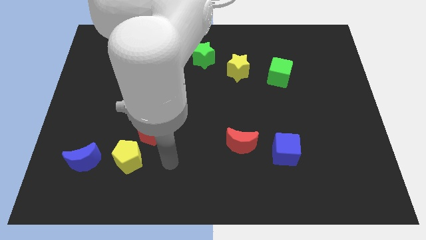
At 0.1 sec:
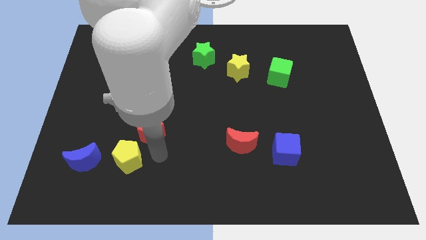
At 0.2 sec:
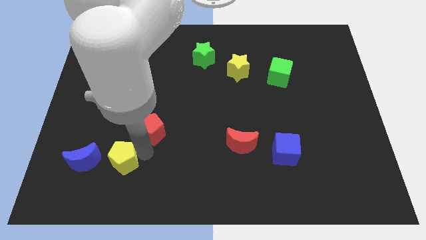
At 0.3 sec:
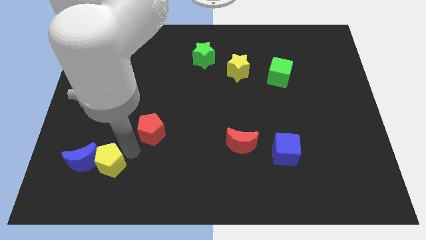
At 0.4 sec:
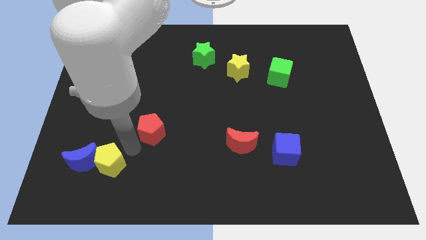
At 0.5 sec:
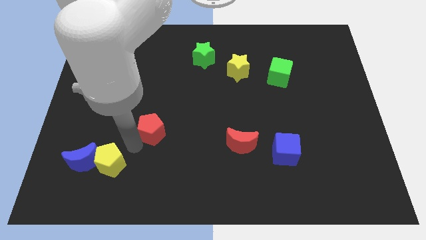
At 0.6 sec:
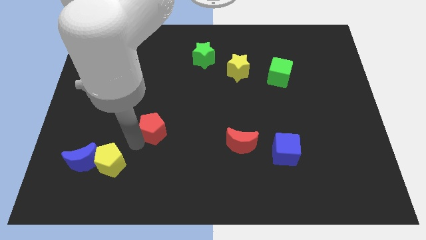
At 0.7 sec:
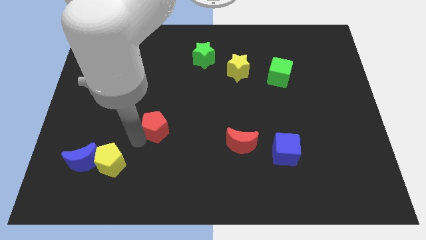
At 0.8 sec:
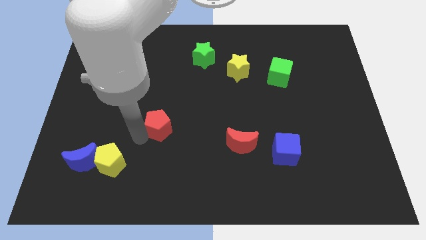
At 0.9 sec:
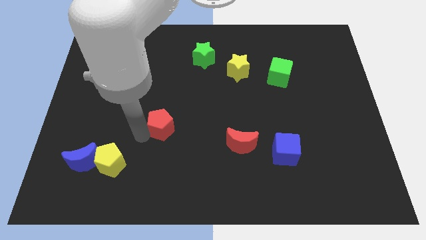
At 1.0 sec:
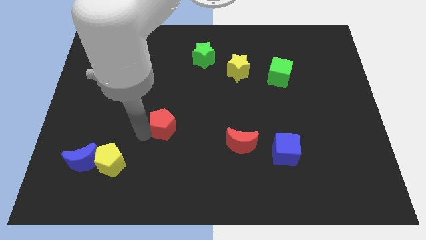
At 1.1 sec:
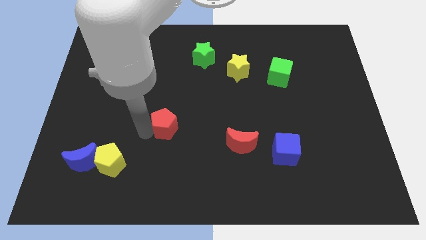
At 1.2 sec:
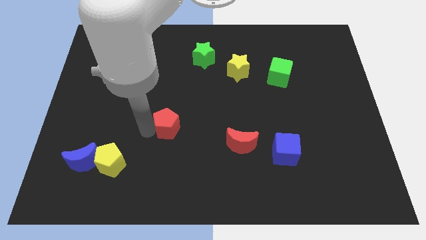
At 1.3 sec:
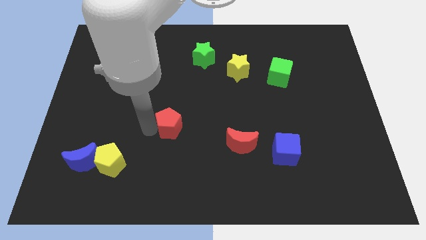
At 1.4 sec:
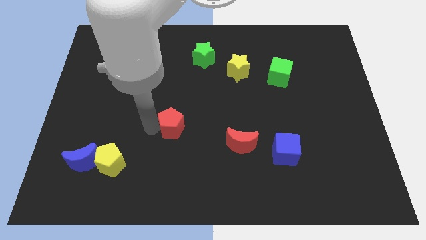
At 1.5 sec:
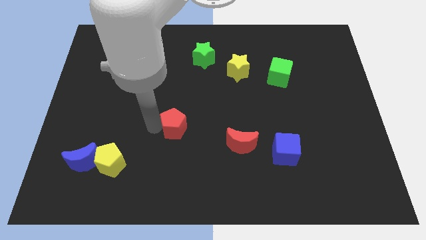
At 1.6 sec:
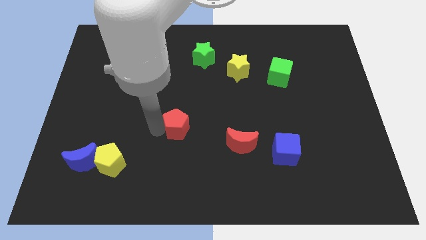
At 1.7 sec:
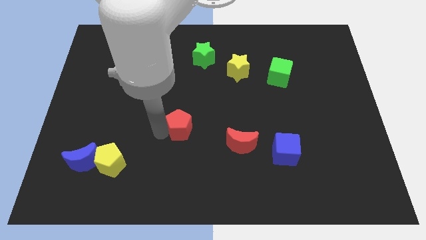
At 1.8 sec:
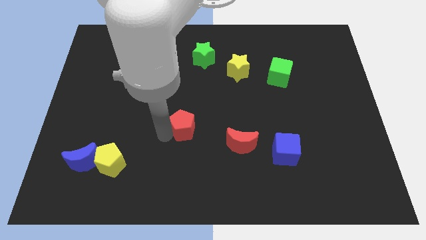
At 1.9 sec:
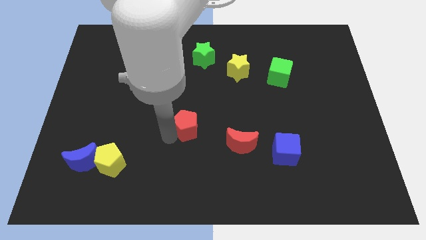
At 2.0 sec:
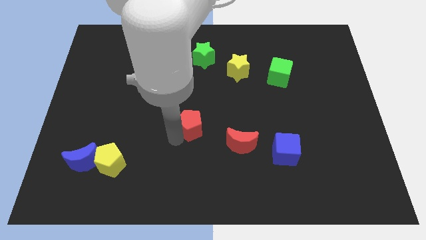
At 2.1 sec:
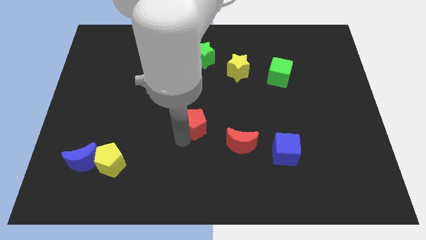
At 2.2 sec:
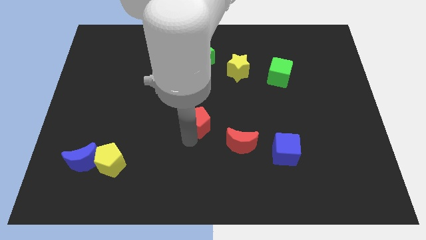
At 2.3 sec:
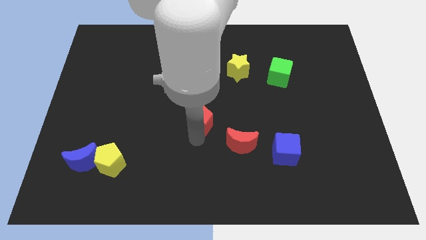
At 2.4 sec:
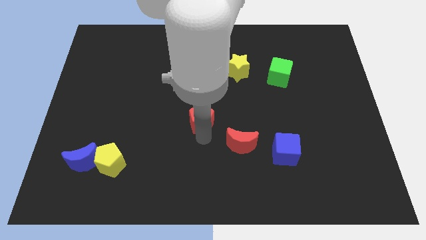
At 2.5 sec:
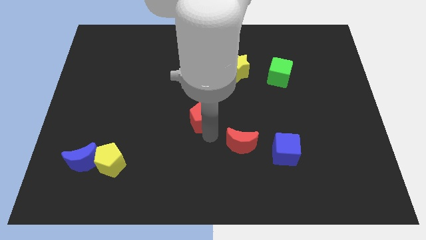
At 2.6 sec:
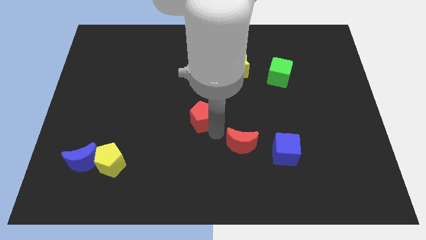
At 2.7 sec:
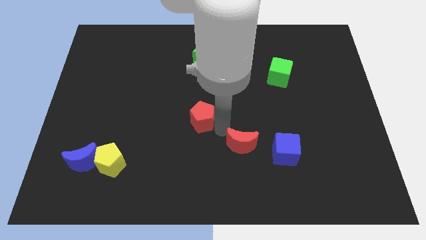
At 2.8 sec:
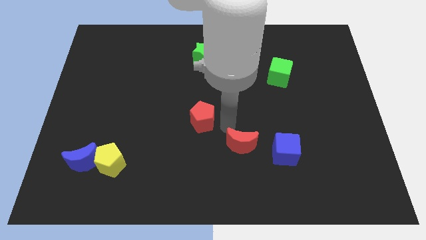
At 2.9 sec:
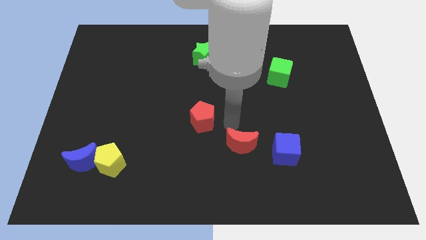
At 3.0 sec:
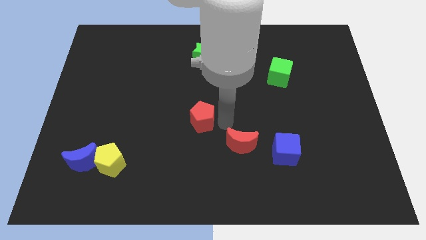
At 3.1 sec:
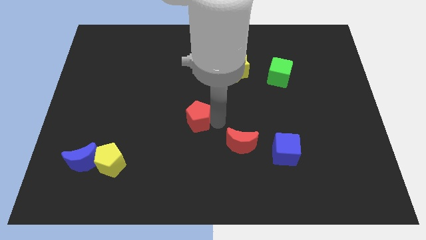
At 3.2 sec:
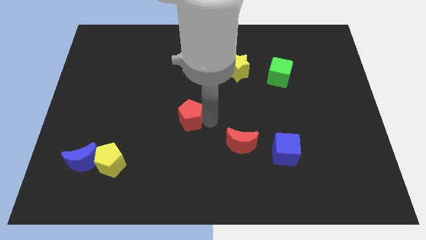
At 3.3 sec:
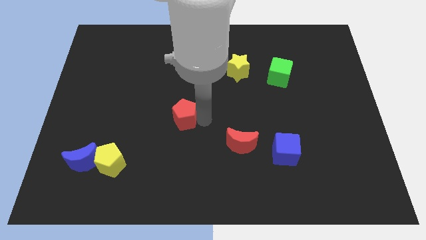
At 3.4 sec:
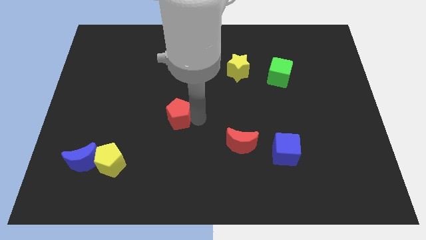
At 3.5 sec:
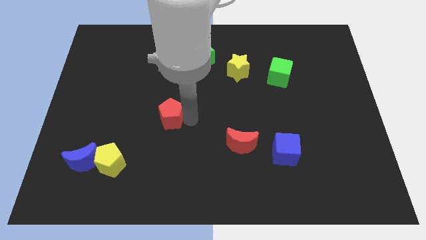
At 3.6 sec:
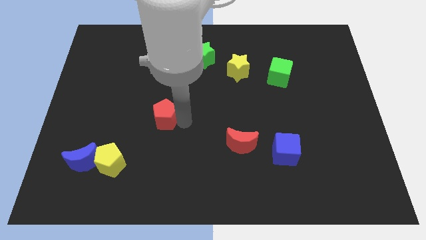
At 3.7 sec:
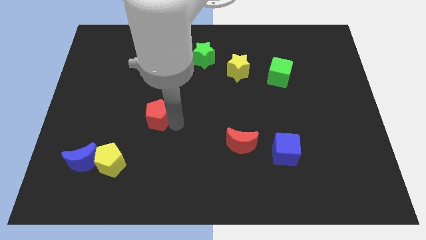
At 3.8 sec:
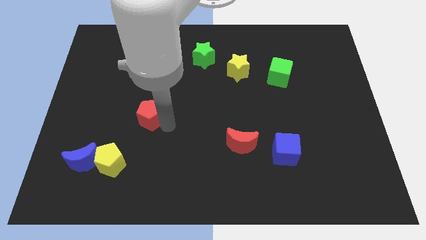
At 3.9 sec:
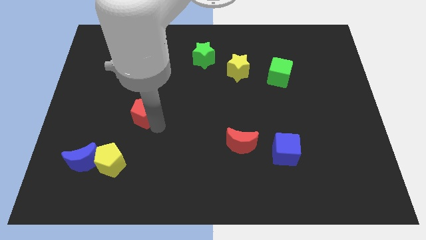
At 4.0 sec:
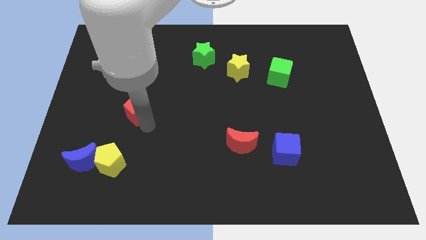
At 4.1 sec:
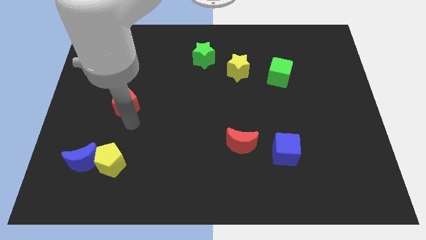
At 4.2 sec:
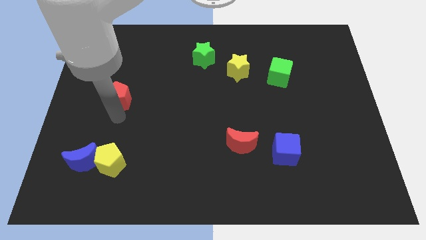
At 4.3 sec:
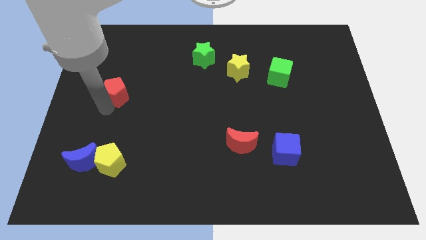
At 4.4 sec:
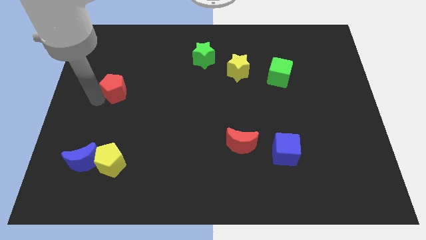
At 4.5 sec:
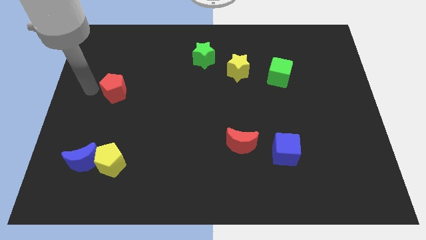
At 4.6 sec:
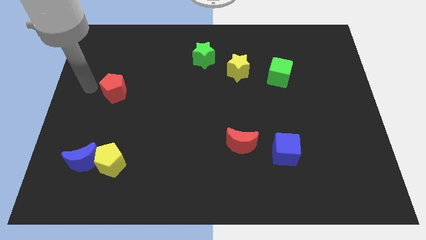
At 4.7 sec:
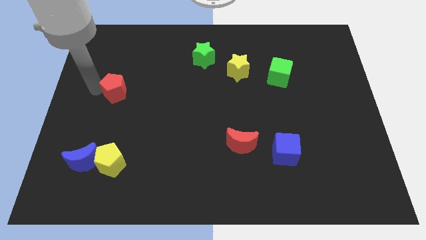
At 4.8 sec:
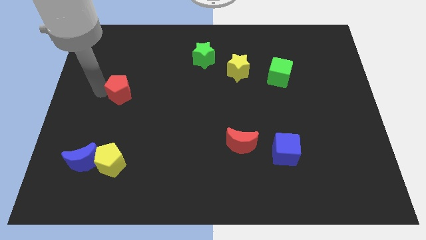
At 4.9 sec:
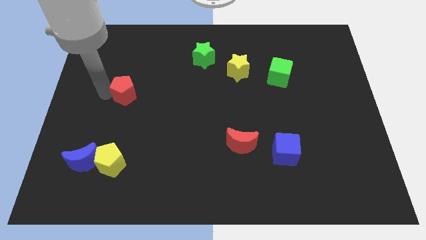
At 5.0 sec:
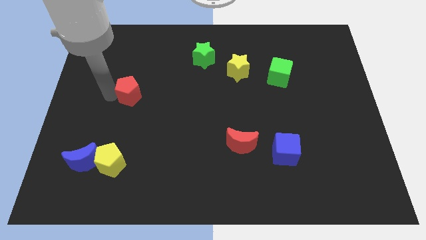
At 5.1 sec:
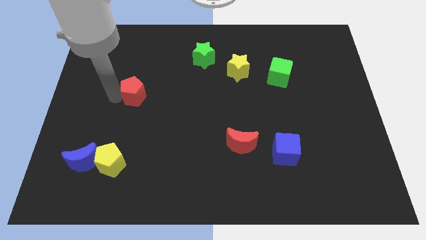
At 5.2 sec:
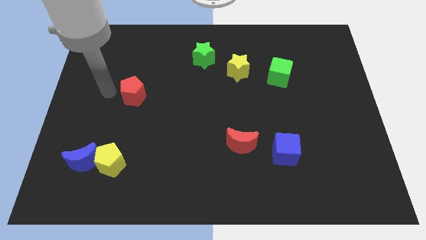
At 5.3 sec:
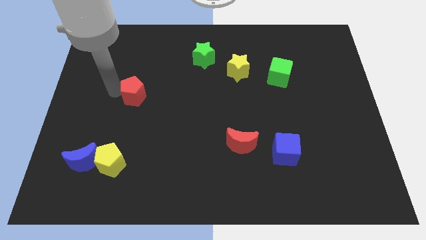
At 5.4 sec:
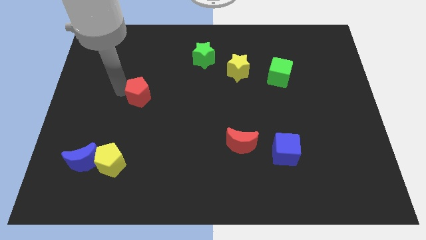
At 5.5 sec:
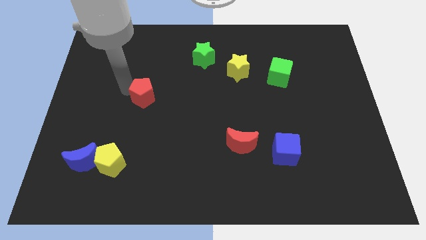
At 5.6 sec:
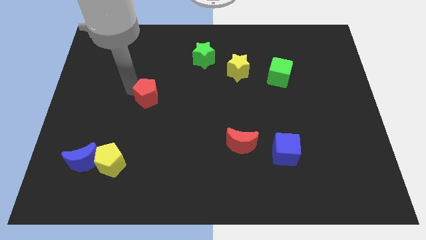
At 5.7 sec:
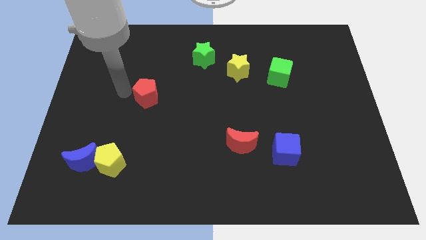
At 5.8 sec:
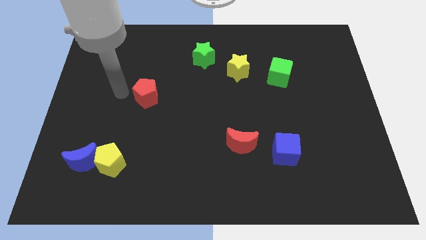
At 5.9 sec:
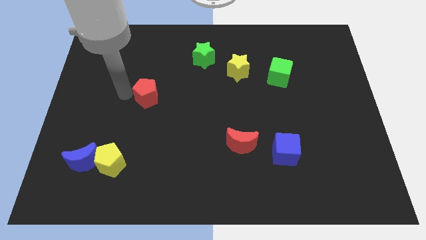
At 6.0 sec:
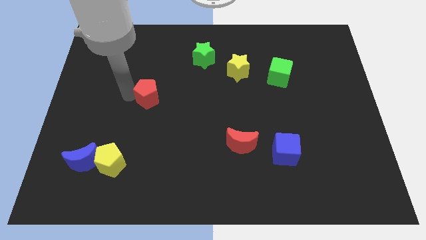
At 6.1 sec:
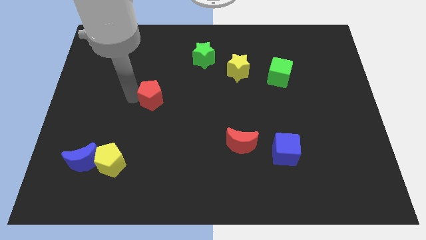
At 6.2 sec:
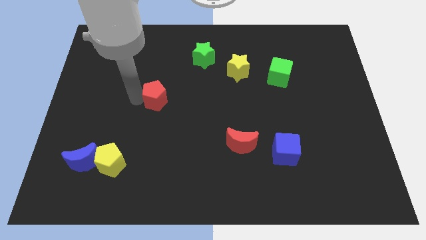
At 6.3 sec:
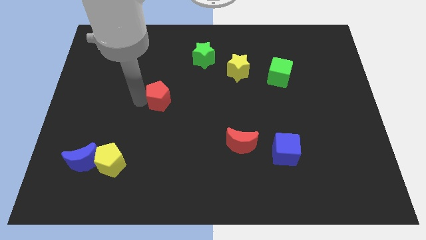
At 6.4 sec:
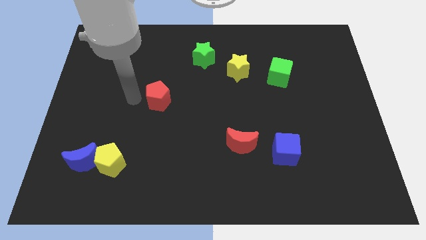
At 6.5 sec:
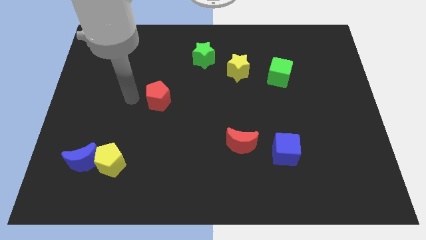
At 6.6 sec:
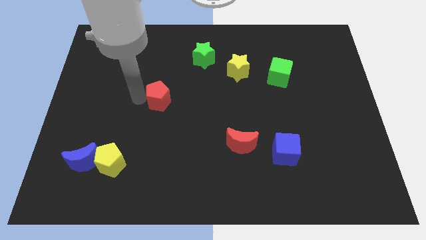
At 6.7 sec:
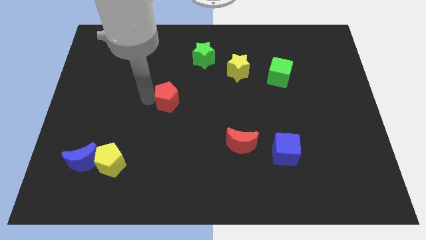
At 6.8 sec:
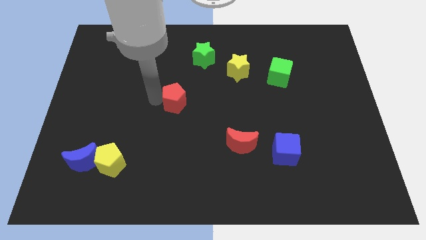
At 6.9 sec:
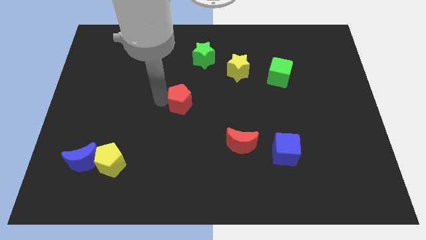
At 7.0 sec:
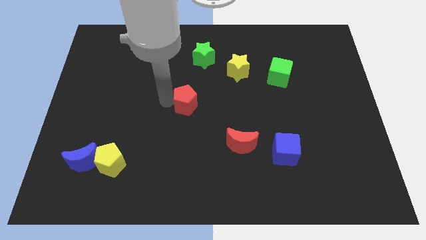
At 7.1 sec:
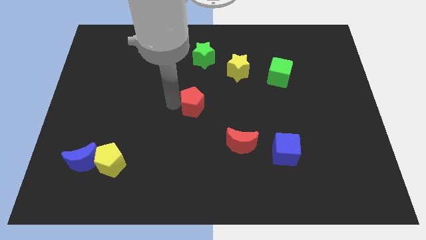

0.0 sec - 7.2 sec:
push the red pentagon to the bottom side of the green star
